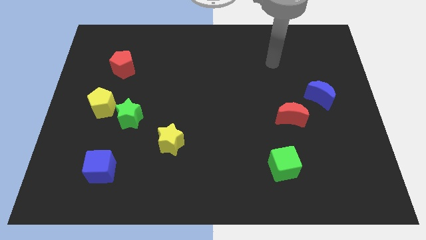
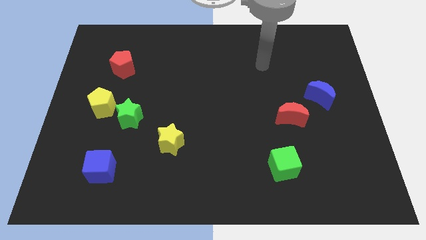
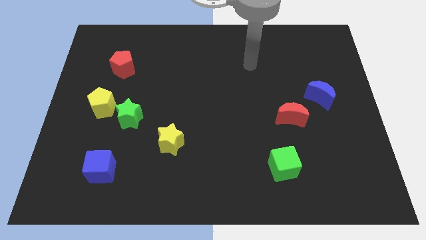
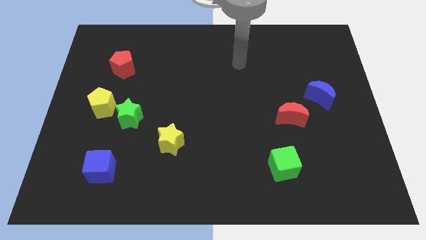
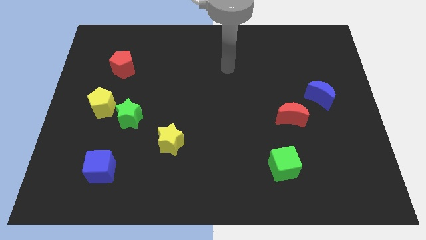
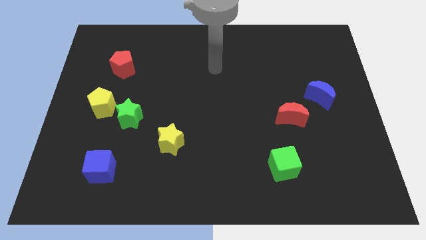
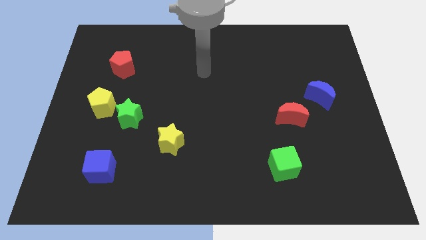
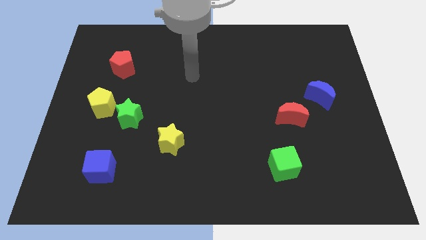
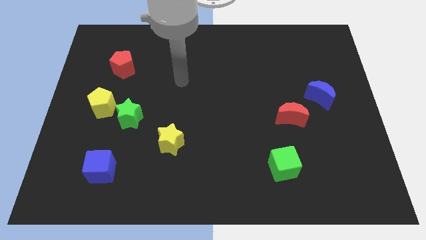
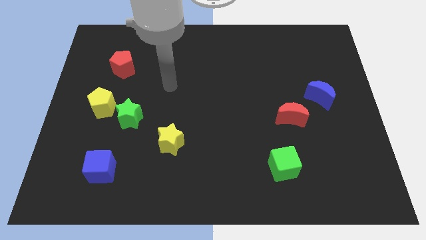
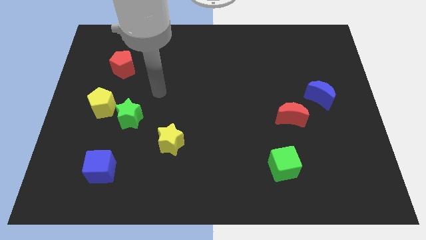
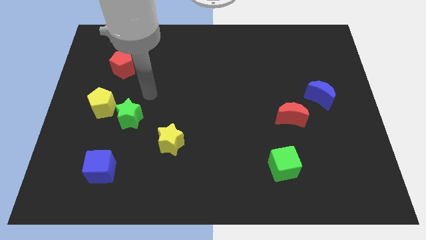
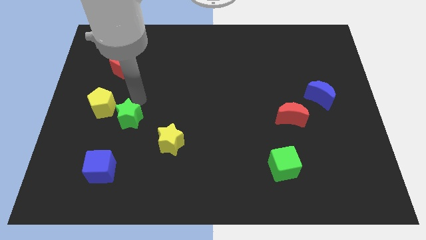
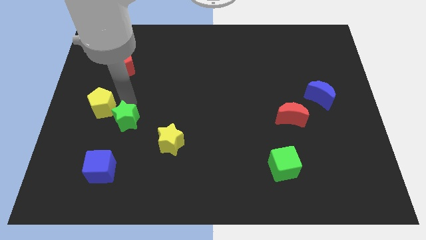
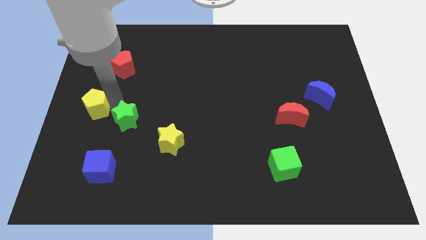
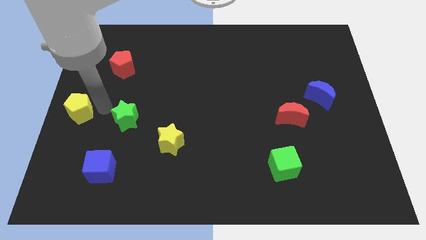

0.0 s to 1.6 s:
pull the green star apart from the yellow pentagon

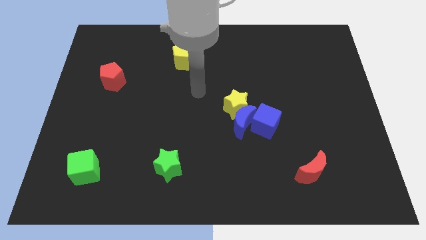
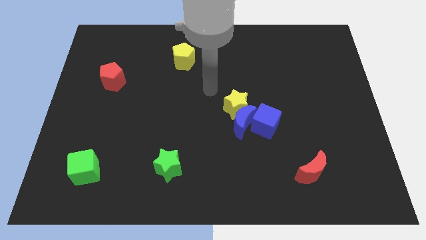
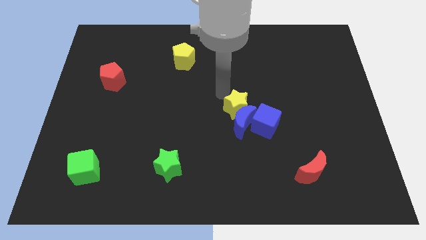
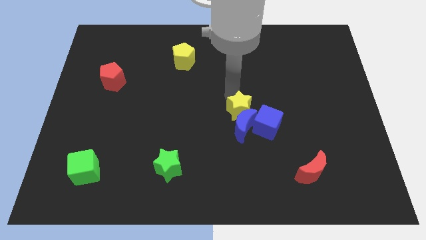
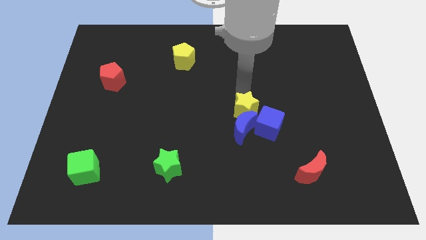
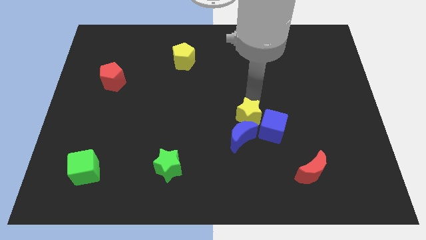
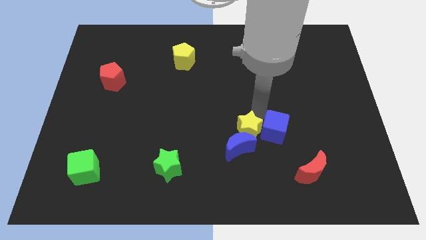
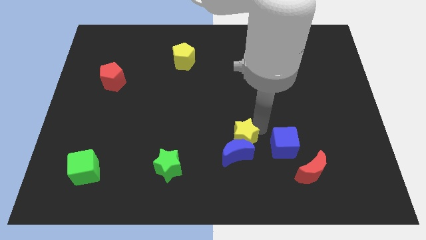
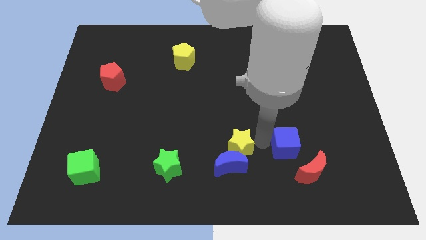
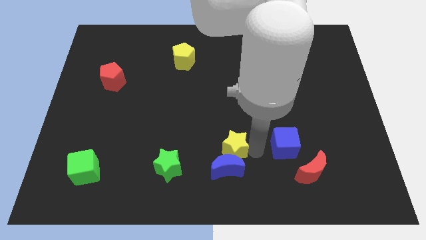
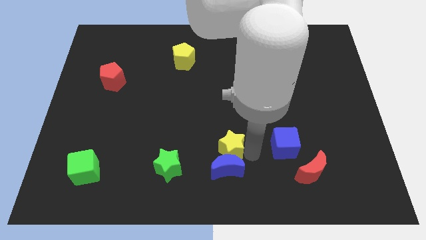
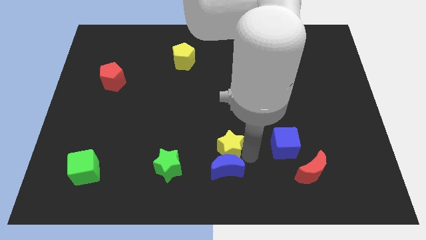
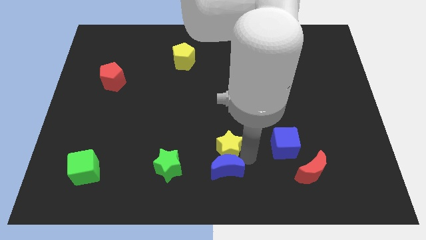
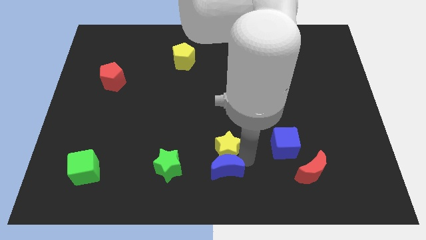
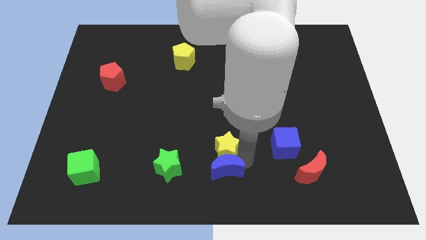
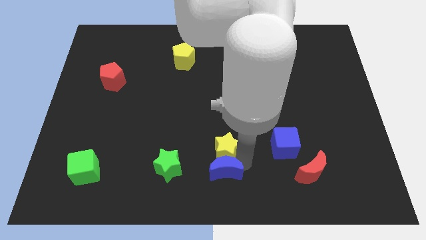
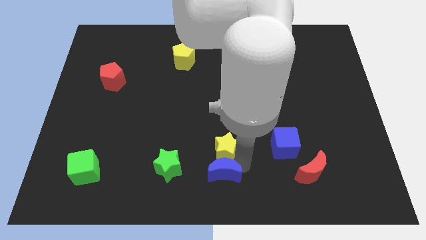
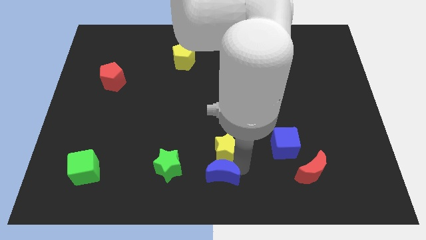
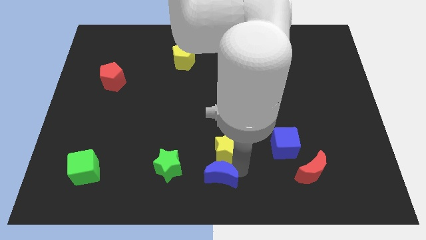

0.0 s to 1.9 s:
separate the blue moon from the yellow star and blue cube

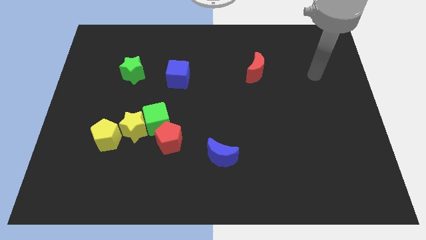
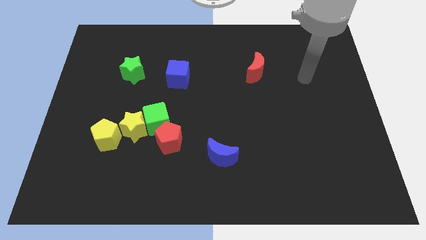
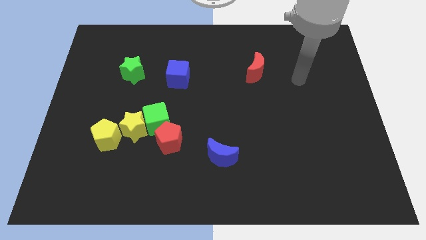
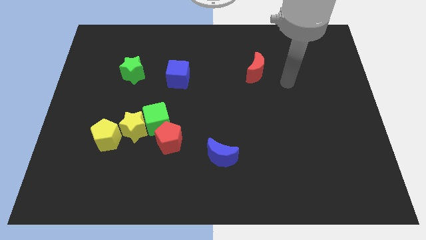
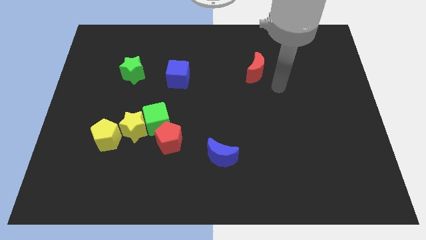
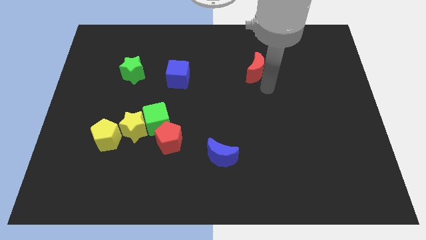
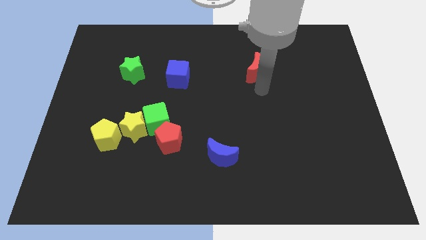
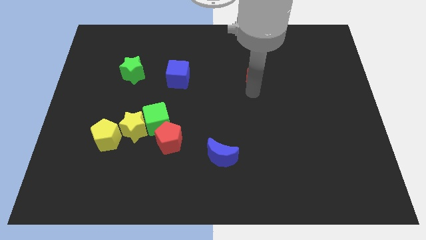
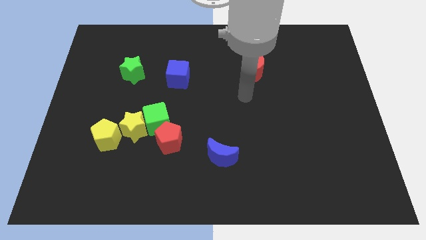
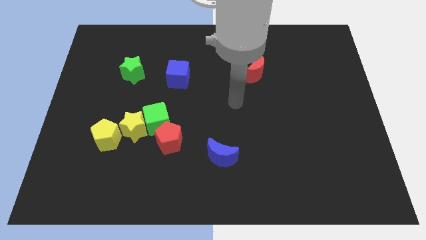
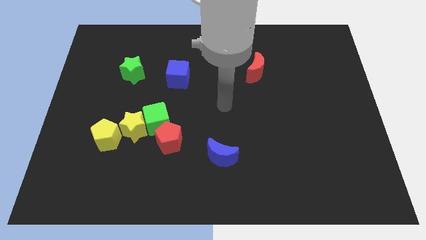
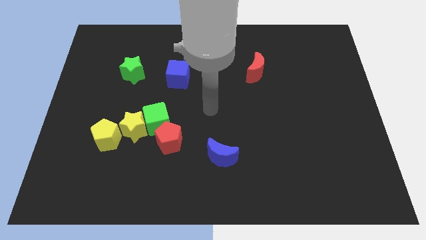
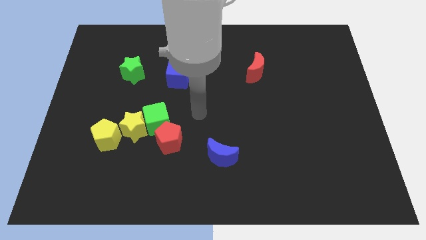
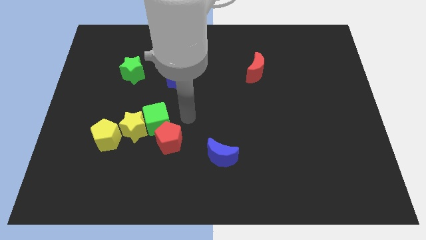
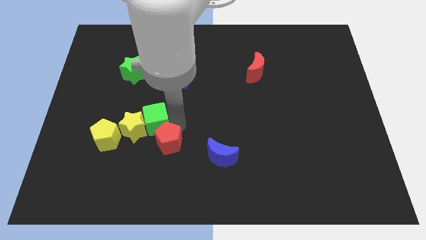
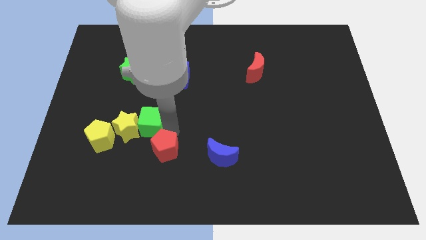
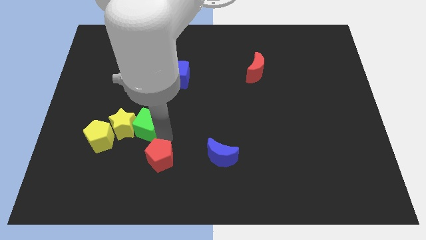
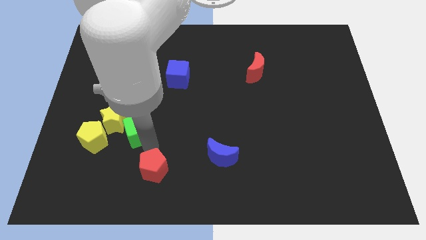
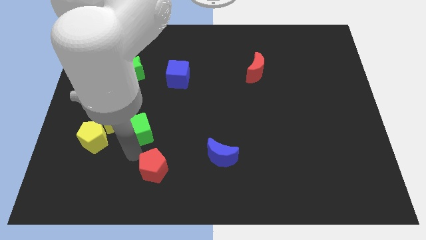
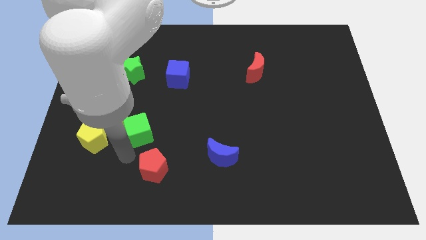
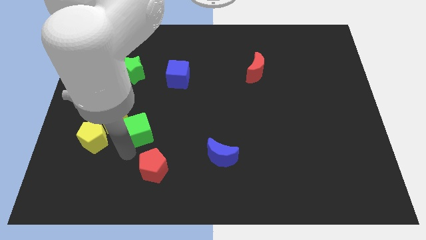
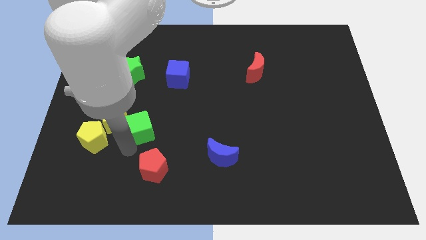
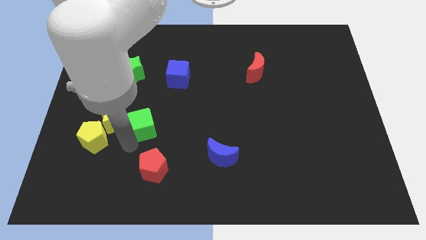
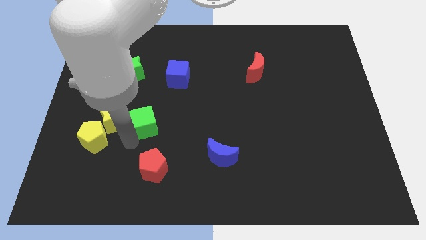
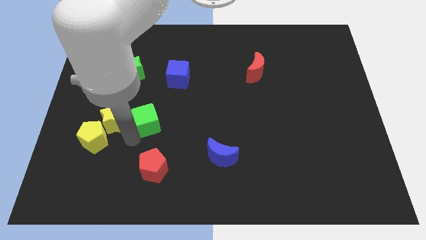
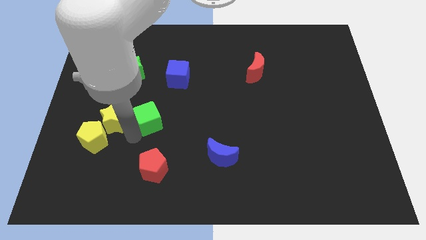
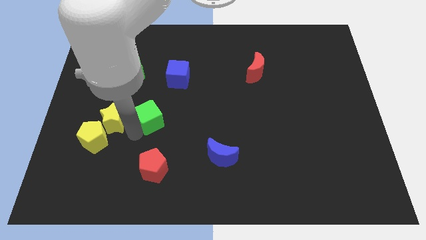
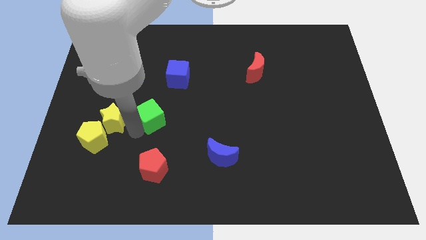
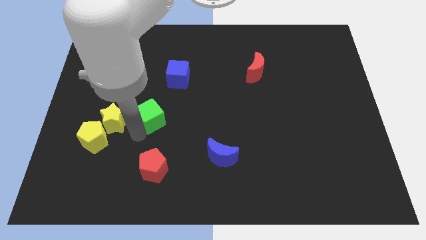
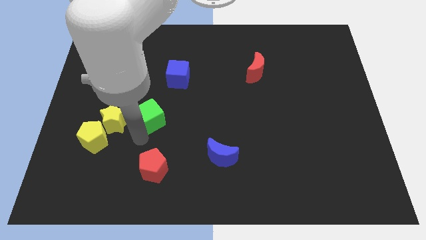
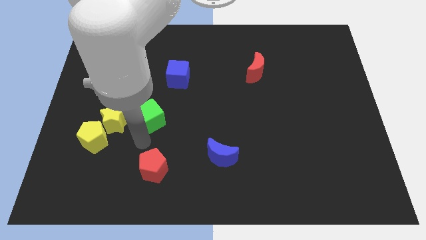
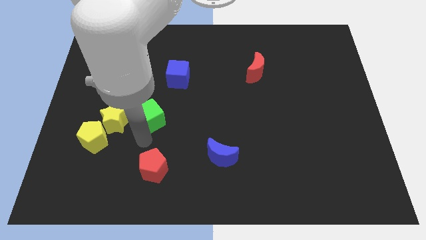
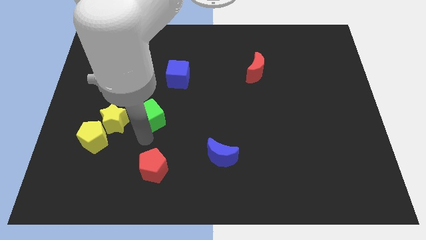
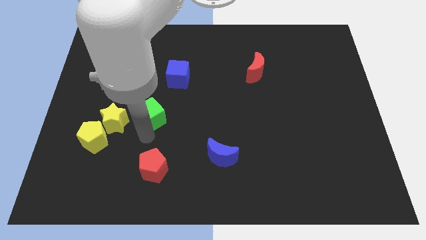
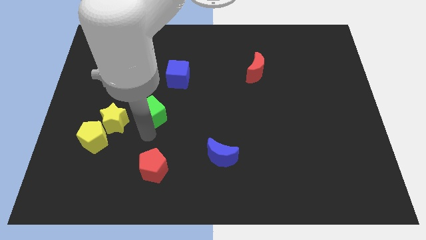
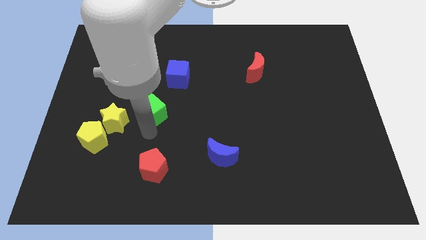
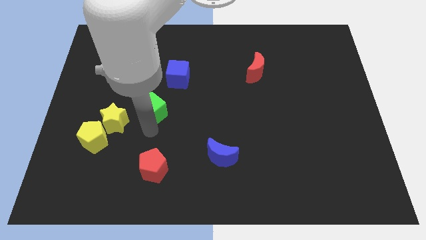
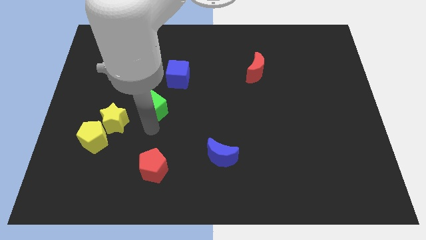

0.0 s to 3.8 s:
pull the green cube apart from the yellow star and red pentagon

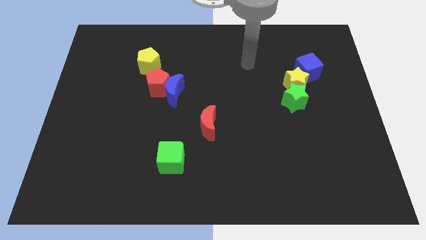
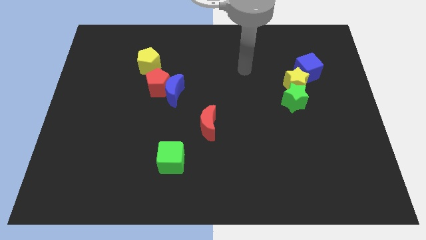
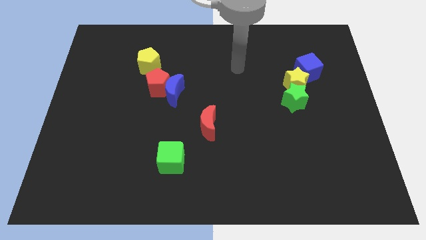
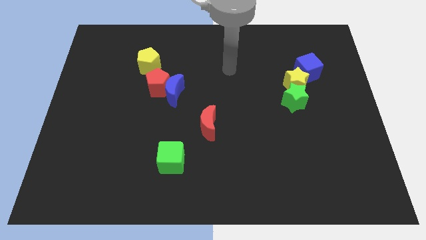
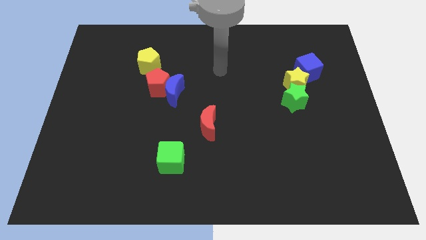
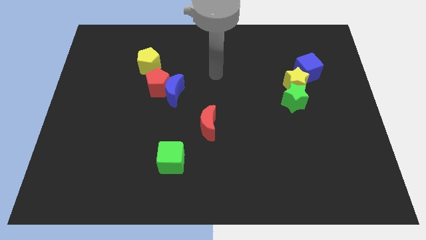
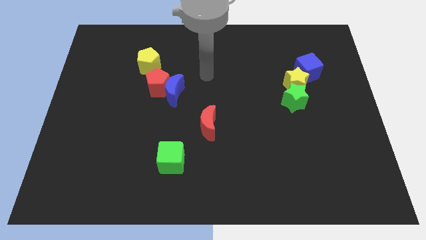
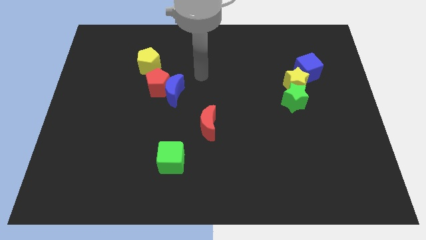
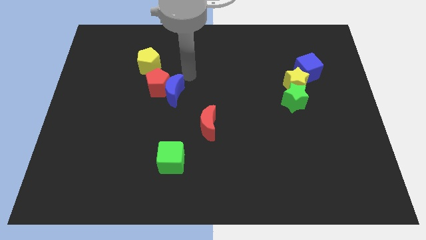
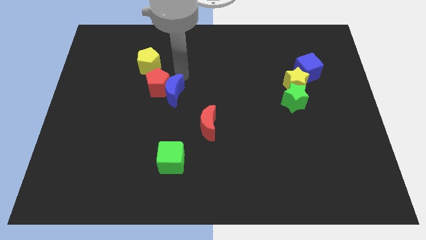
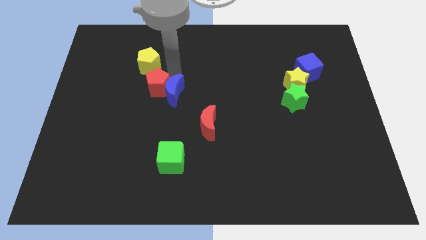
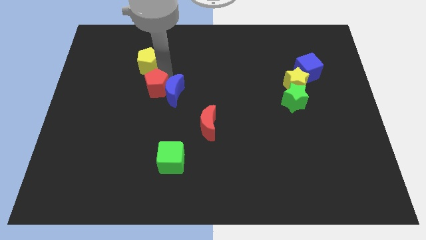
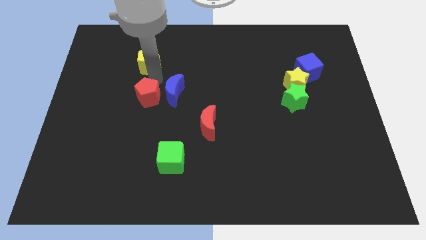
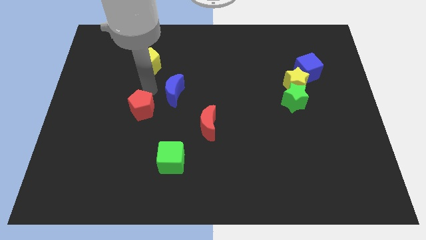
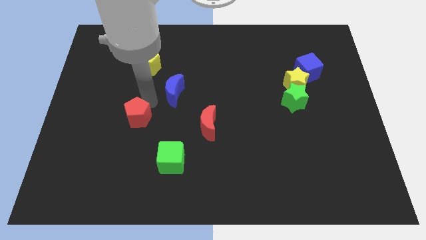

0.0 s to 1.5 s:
separate the blue moon from the red pentagon

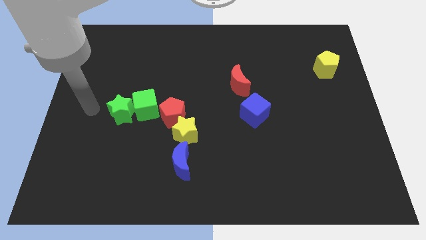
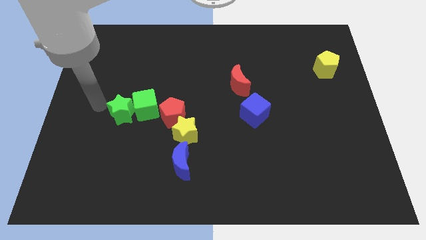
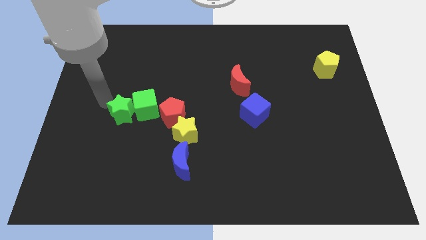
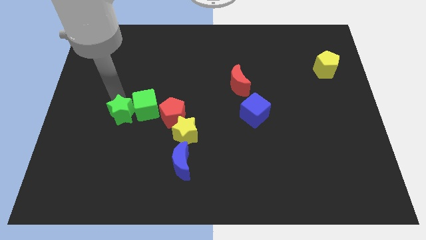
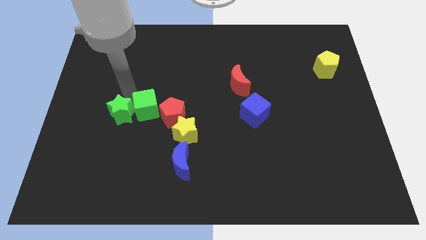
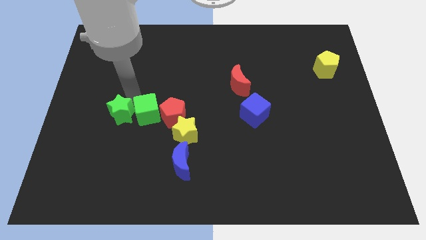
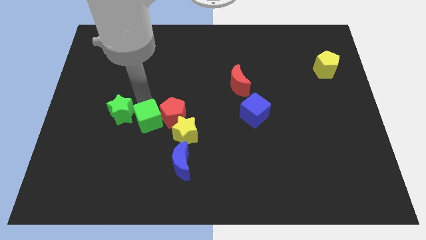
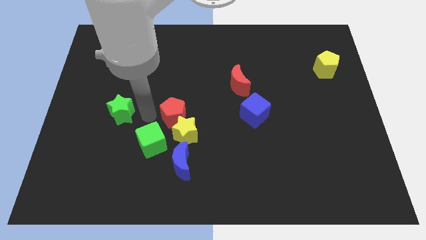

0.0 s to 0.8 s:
move the green star away from the green cube
